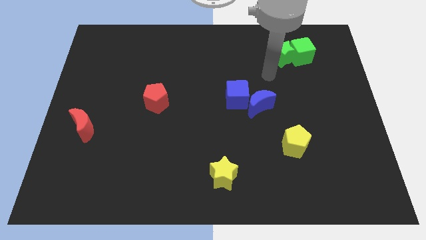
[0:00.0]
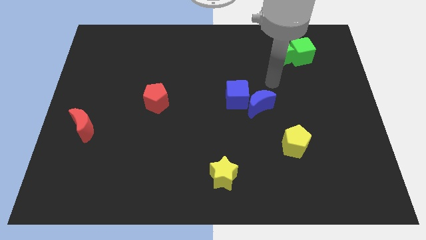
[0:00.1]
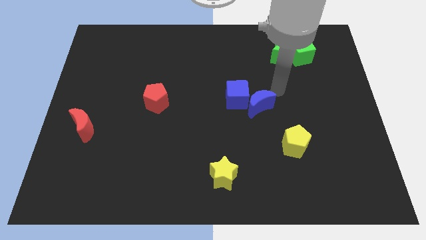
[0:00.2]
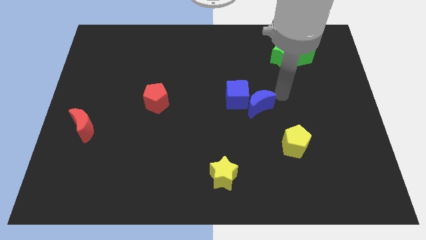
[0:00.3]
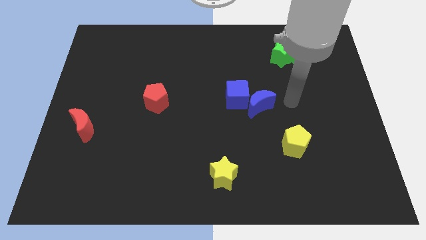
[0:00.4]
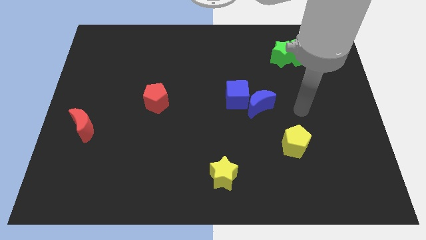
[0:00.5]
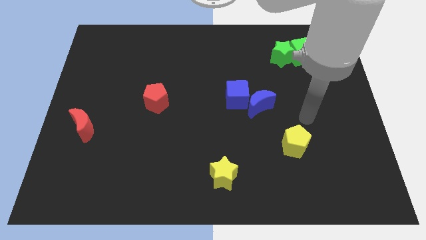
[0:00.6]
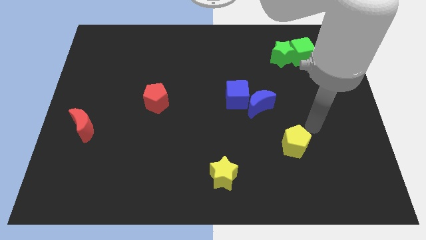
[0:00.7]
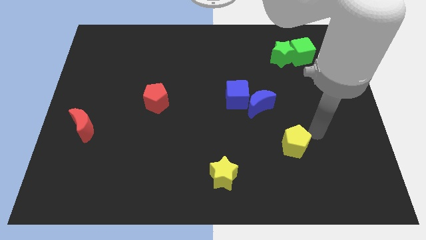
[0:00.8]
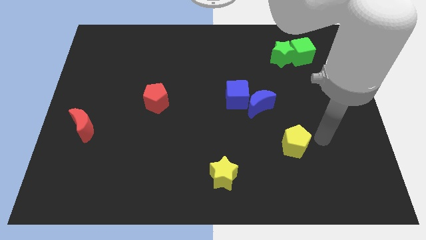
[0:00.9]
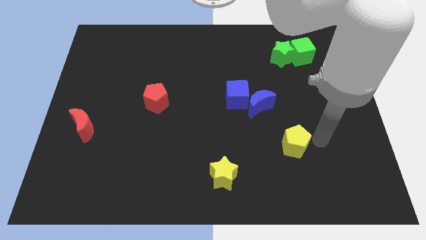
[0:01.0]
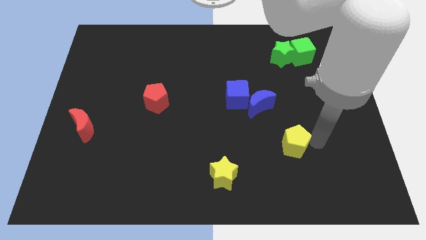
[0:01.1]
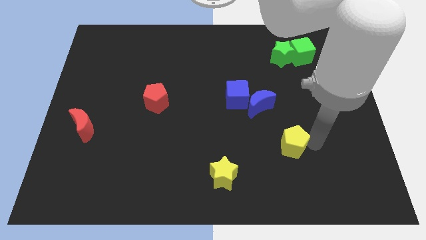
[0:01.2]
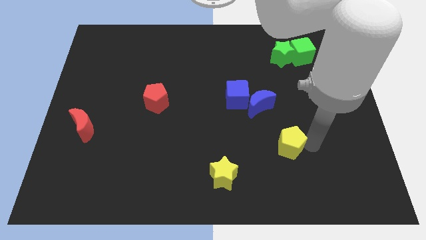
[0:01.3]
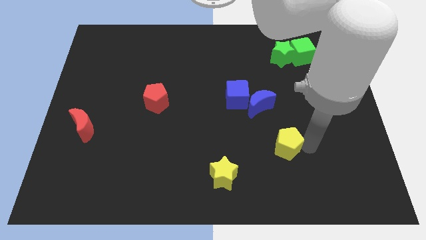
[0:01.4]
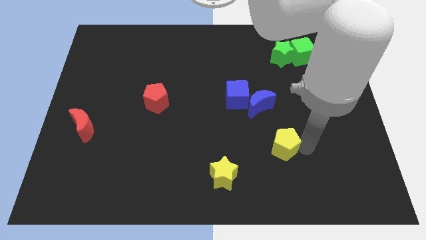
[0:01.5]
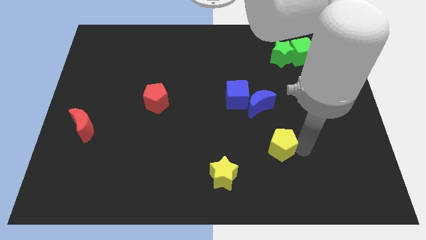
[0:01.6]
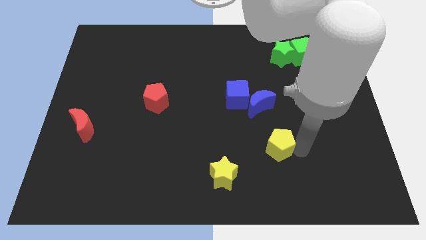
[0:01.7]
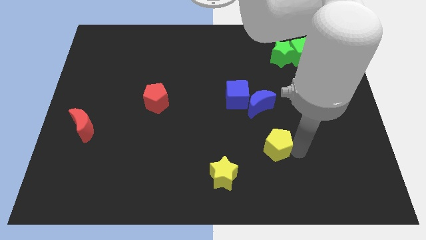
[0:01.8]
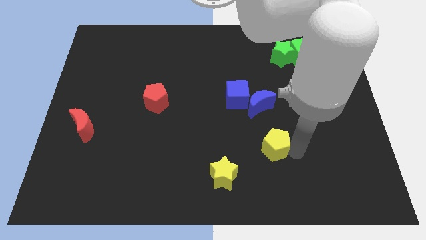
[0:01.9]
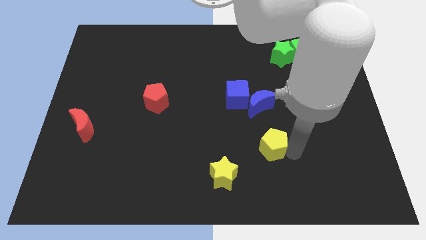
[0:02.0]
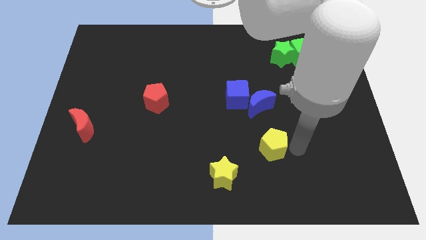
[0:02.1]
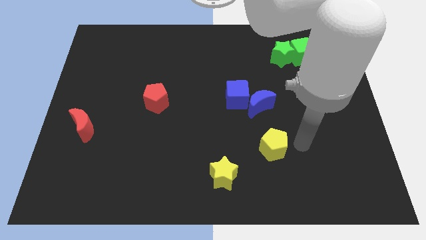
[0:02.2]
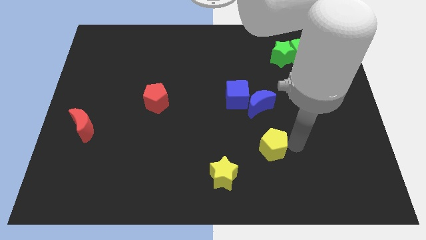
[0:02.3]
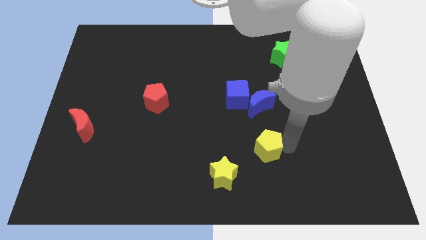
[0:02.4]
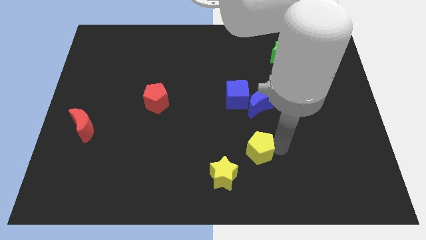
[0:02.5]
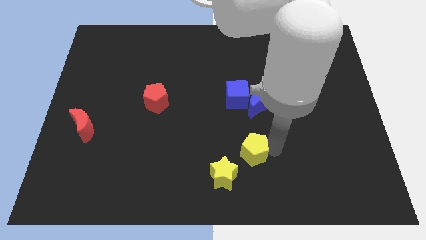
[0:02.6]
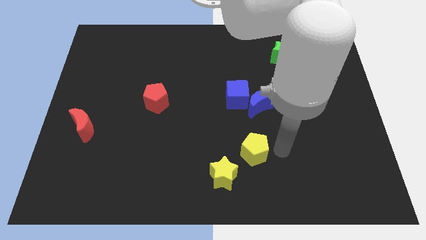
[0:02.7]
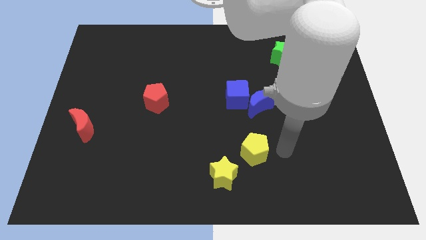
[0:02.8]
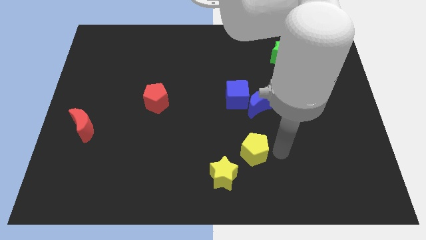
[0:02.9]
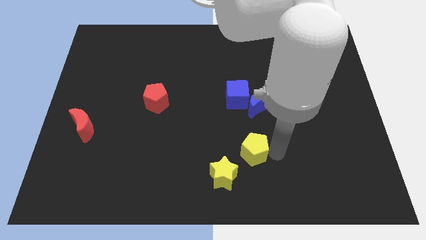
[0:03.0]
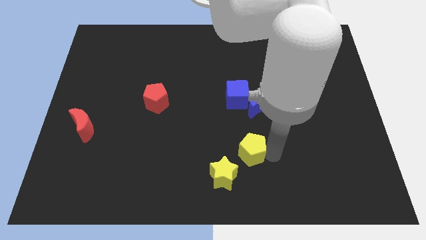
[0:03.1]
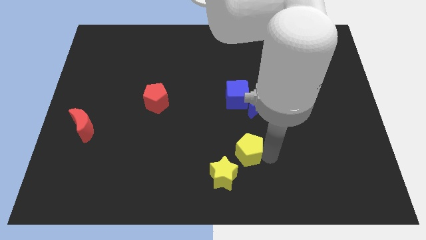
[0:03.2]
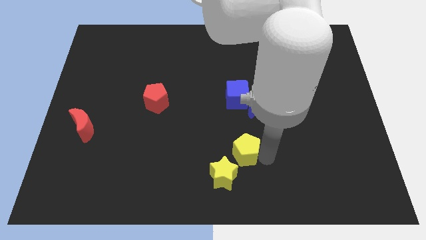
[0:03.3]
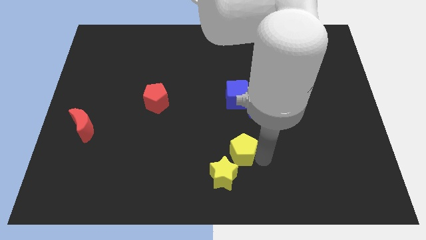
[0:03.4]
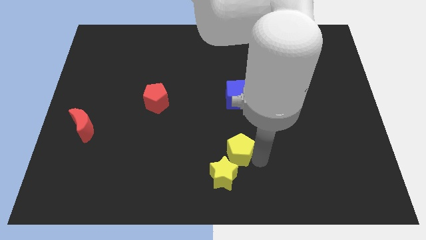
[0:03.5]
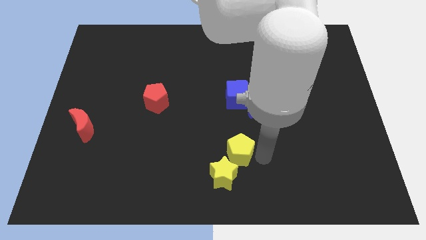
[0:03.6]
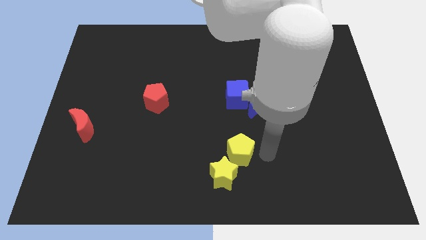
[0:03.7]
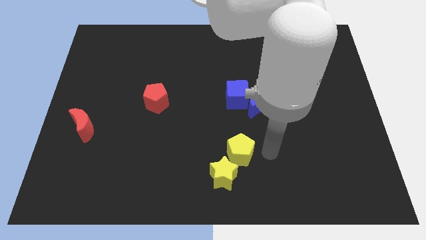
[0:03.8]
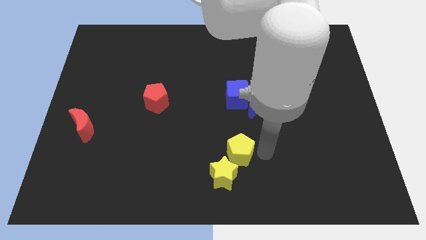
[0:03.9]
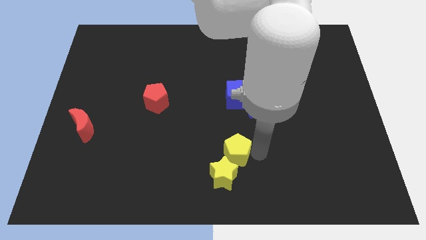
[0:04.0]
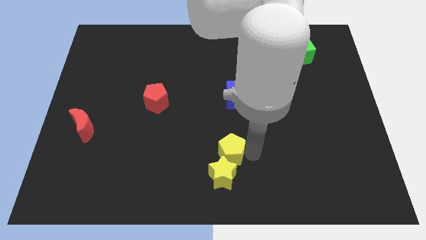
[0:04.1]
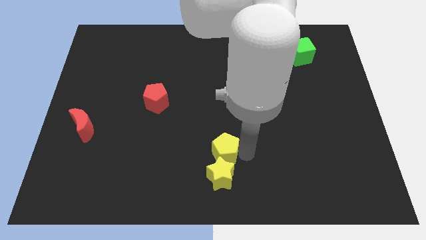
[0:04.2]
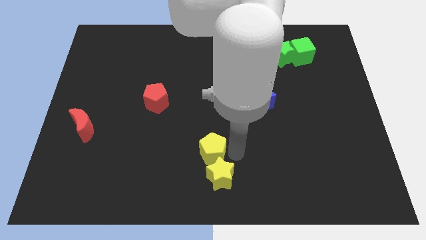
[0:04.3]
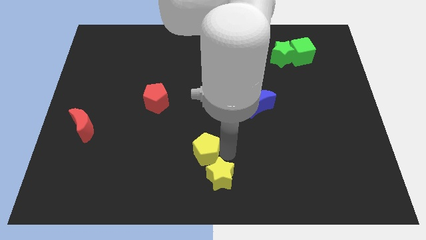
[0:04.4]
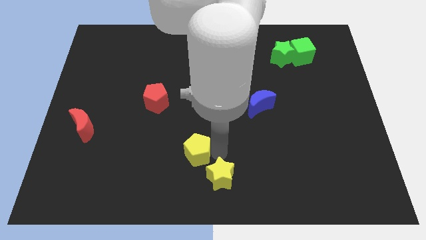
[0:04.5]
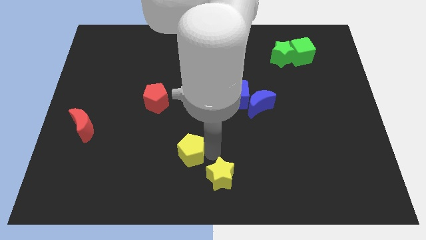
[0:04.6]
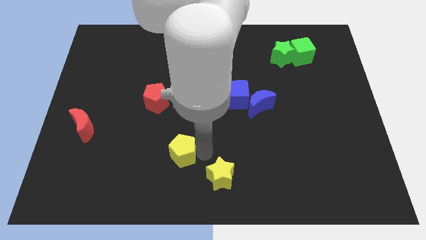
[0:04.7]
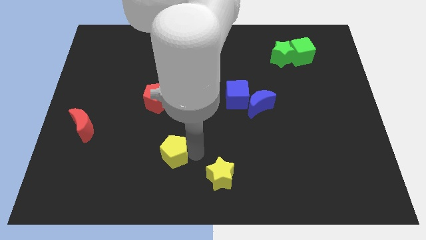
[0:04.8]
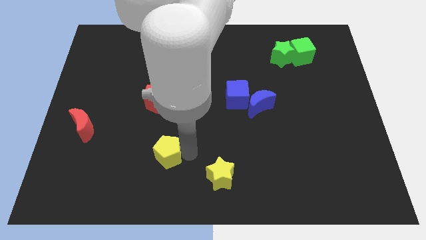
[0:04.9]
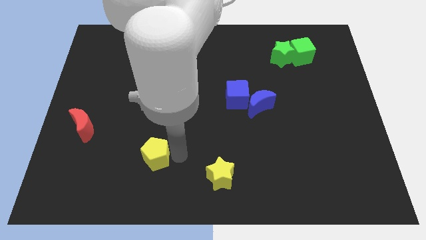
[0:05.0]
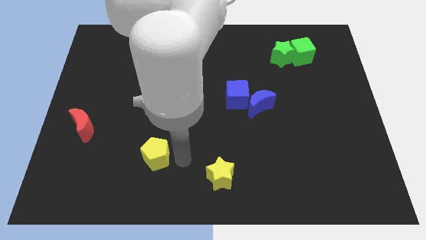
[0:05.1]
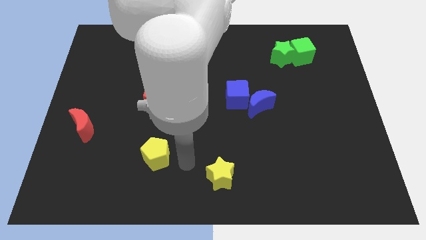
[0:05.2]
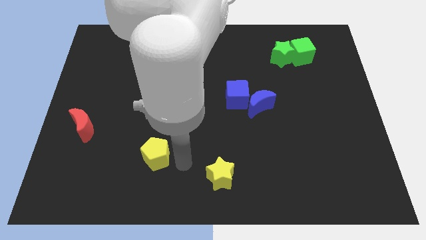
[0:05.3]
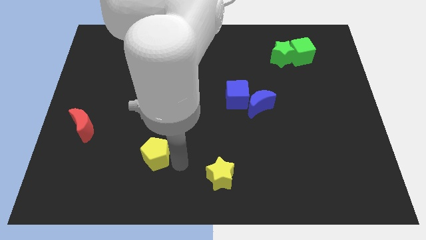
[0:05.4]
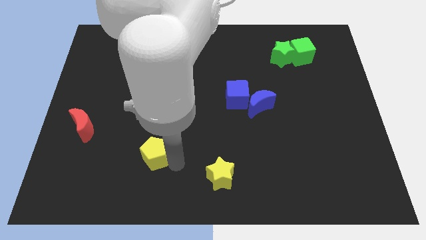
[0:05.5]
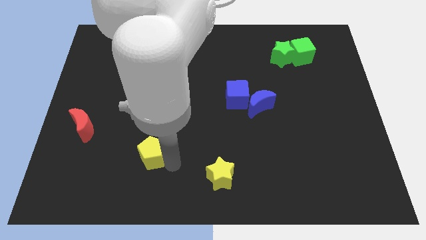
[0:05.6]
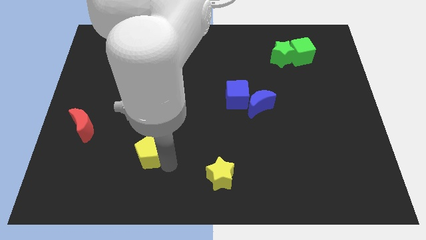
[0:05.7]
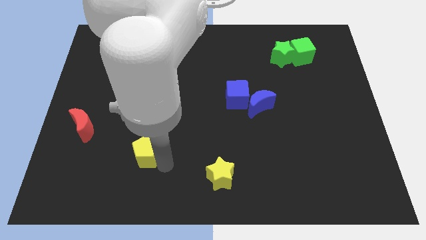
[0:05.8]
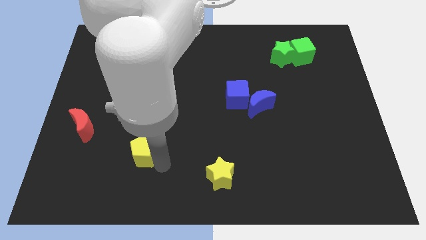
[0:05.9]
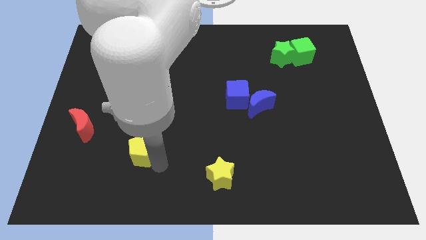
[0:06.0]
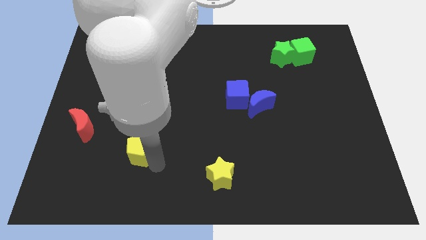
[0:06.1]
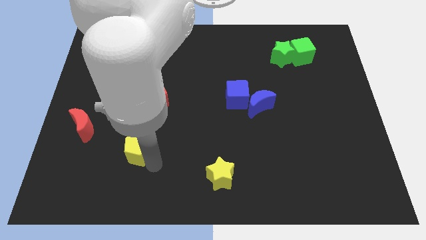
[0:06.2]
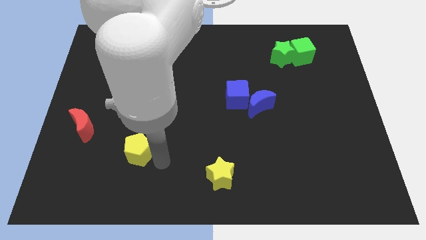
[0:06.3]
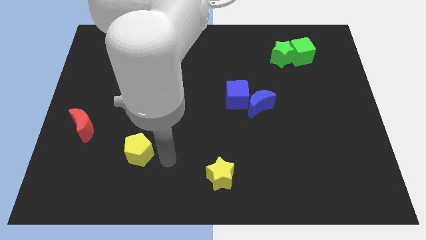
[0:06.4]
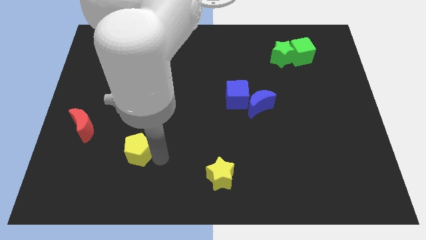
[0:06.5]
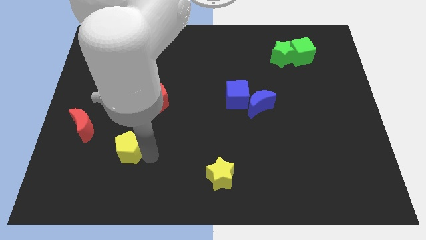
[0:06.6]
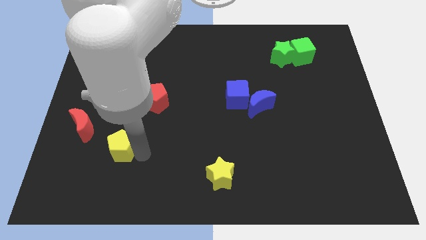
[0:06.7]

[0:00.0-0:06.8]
put the yellow pentagon to the bottom right of the red moon
